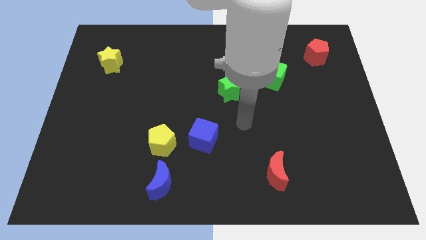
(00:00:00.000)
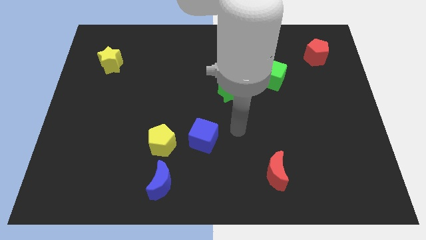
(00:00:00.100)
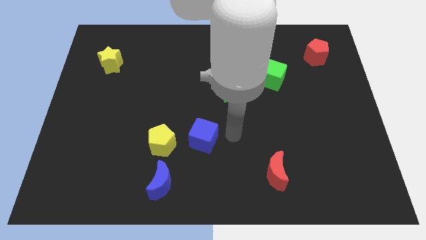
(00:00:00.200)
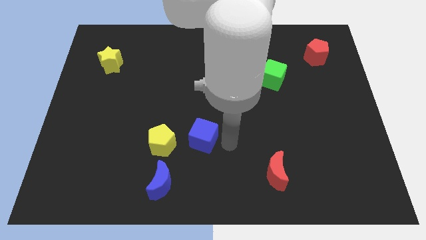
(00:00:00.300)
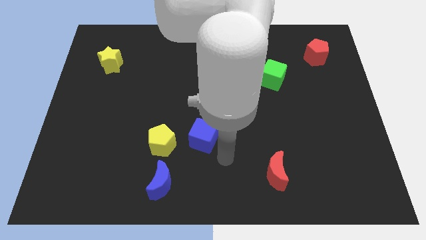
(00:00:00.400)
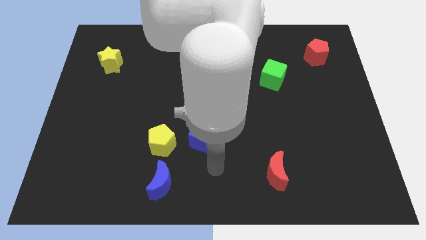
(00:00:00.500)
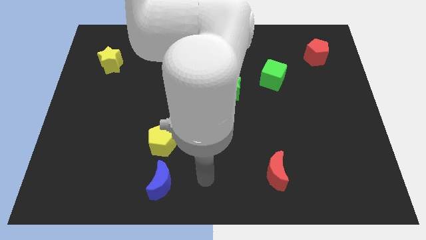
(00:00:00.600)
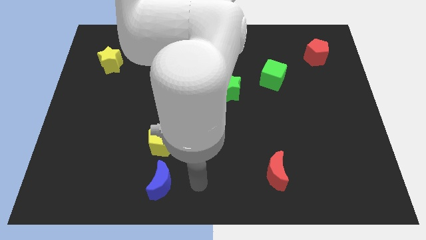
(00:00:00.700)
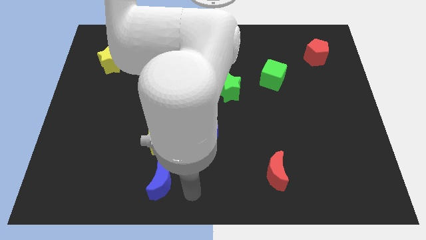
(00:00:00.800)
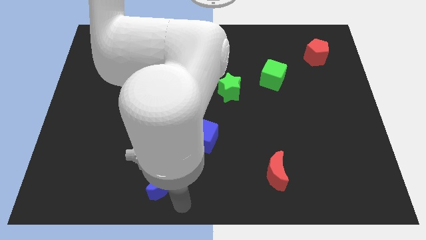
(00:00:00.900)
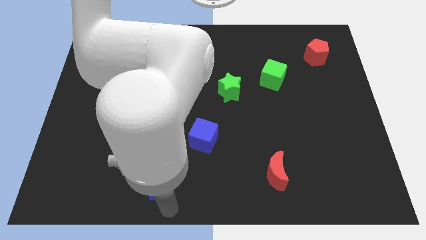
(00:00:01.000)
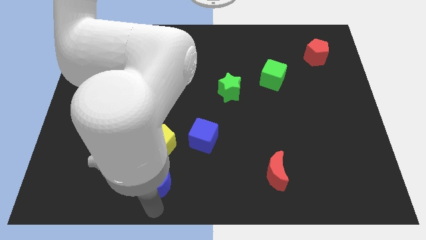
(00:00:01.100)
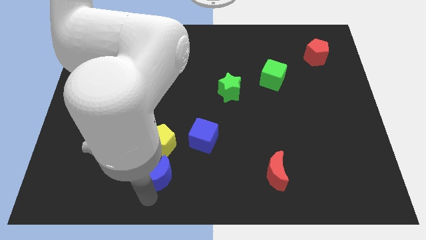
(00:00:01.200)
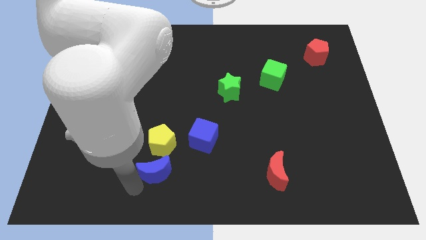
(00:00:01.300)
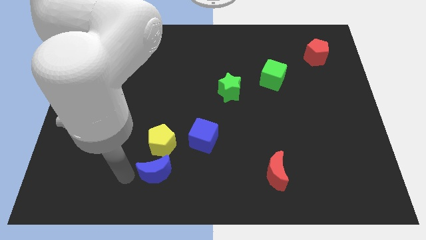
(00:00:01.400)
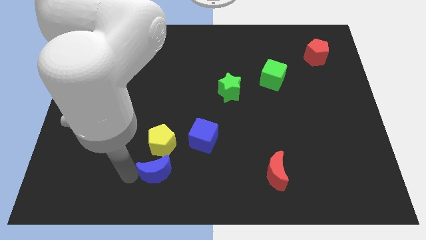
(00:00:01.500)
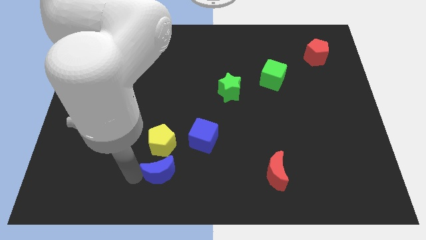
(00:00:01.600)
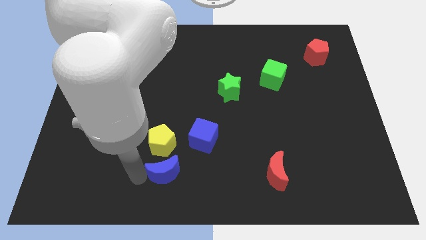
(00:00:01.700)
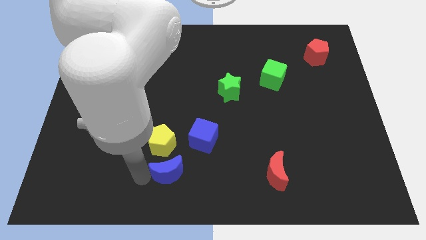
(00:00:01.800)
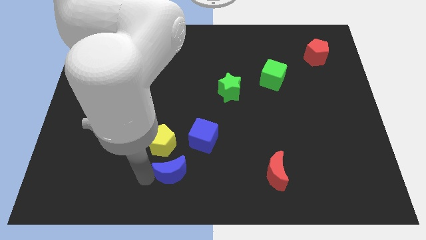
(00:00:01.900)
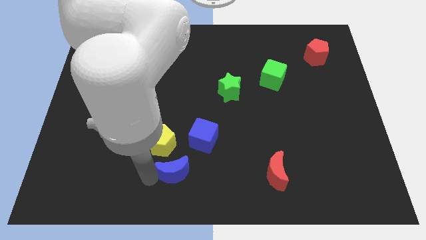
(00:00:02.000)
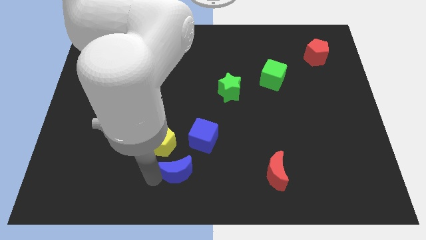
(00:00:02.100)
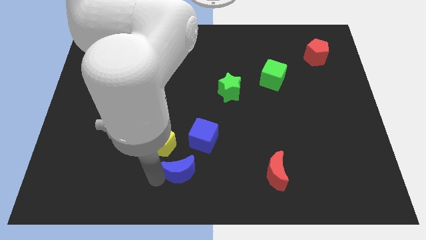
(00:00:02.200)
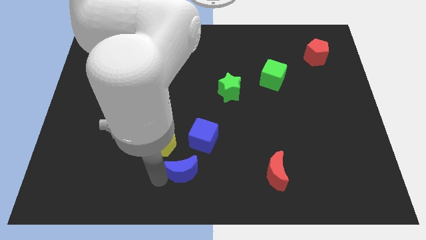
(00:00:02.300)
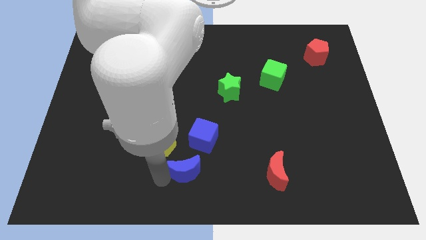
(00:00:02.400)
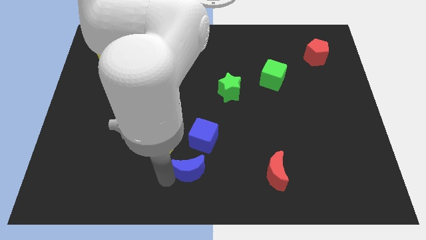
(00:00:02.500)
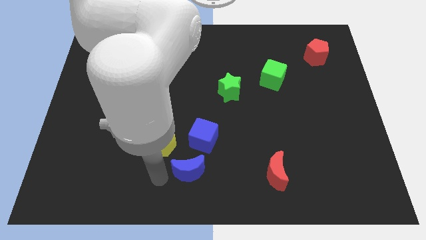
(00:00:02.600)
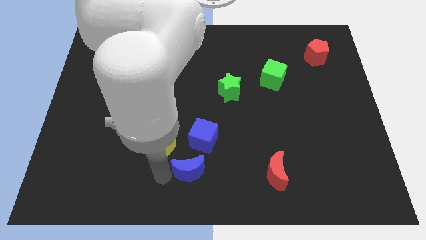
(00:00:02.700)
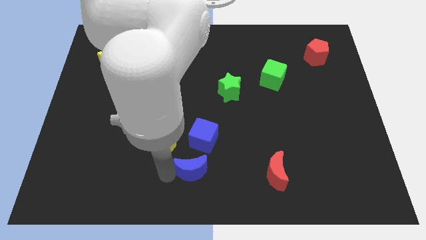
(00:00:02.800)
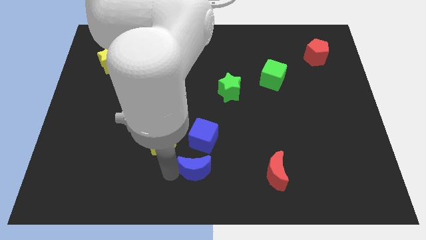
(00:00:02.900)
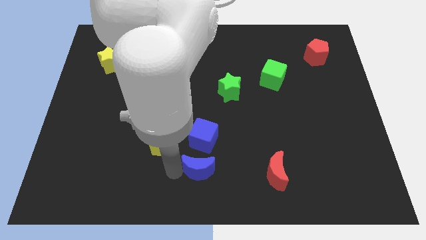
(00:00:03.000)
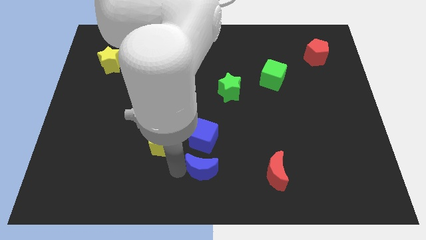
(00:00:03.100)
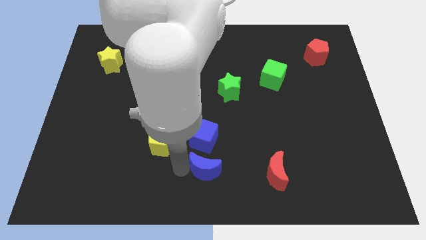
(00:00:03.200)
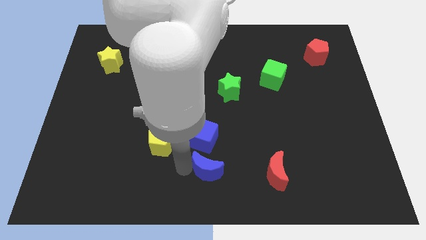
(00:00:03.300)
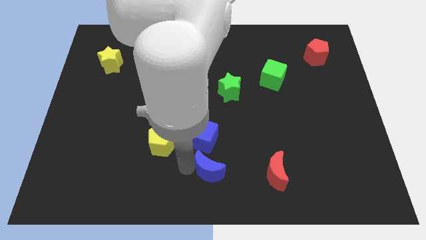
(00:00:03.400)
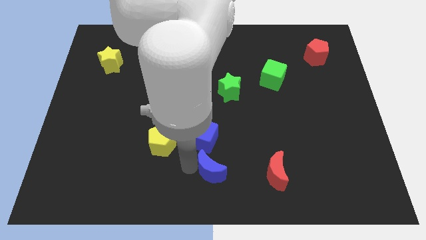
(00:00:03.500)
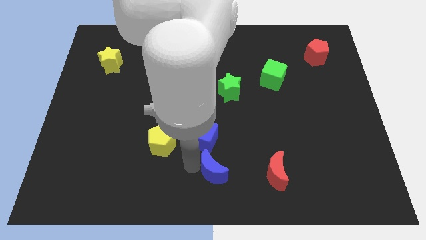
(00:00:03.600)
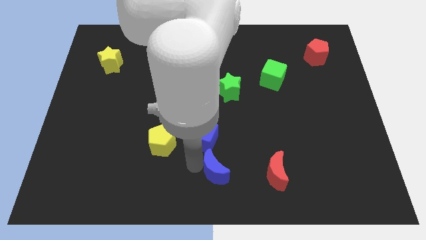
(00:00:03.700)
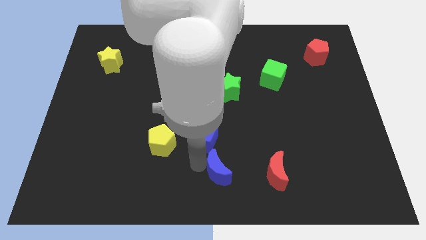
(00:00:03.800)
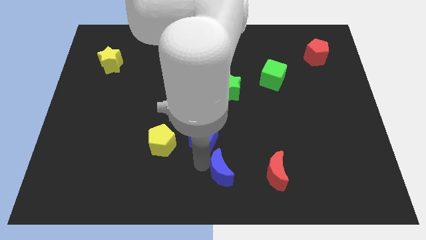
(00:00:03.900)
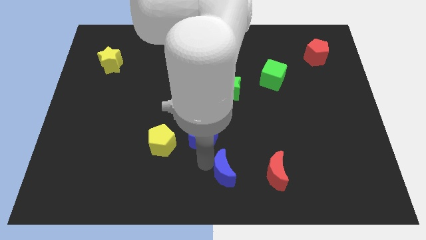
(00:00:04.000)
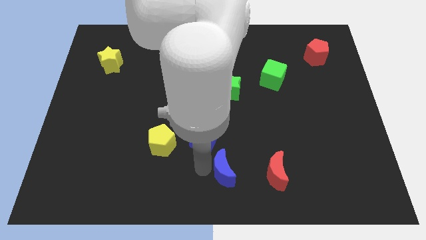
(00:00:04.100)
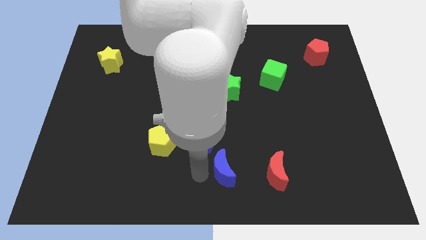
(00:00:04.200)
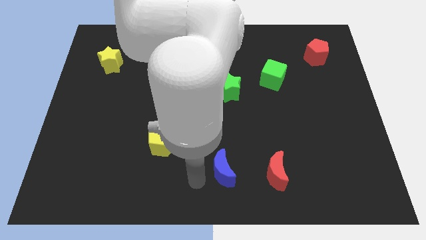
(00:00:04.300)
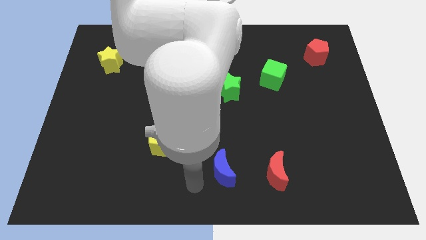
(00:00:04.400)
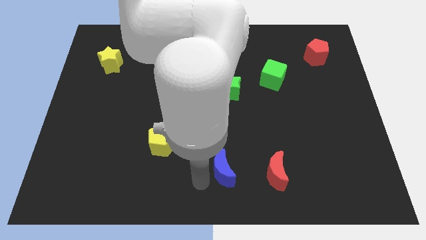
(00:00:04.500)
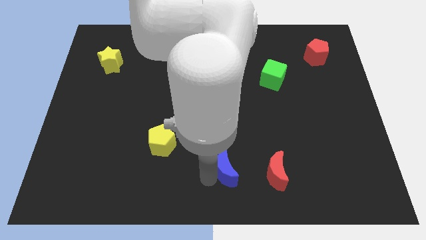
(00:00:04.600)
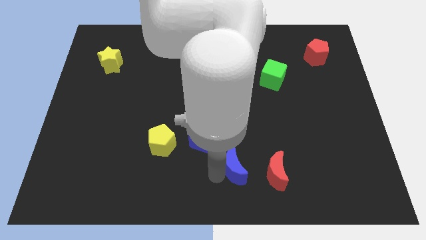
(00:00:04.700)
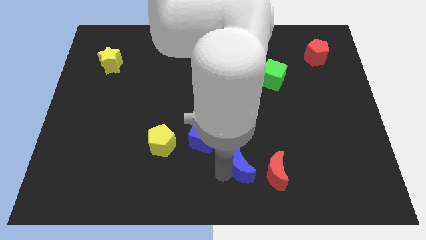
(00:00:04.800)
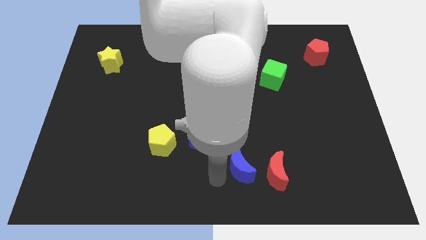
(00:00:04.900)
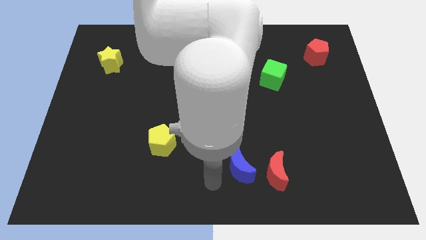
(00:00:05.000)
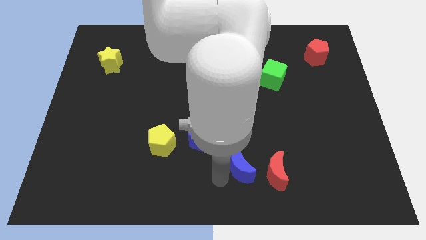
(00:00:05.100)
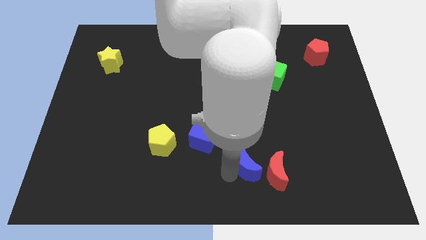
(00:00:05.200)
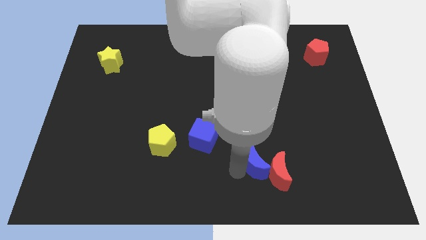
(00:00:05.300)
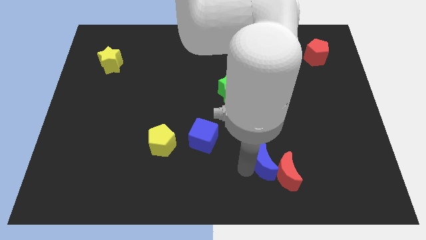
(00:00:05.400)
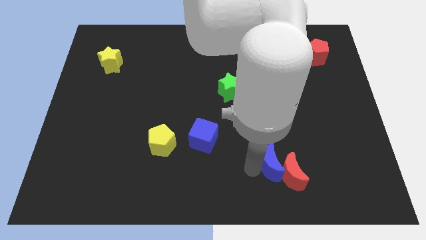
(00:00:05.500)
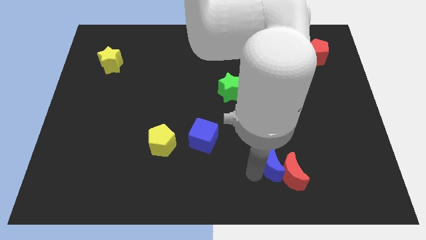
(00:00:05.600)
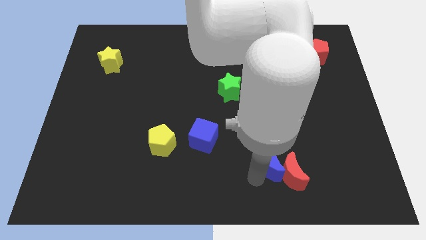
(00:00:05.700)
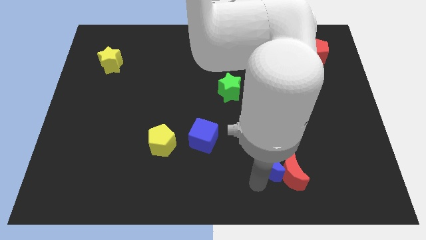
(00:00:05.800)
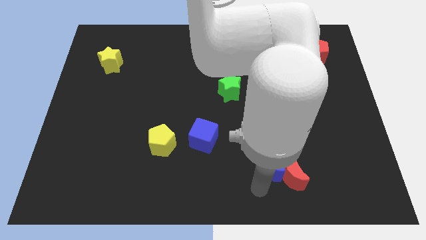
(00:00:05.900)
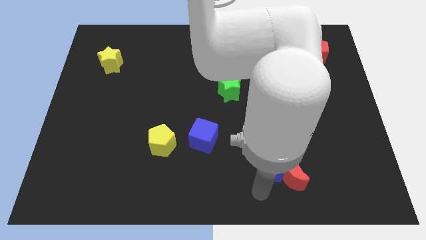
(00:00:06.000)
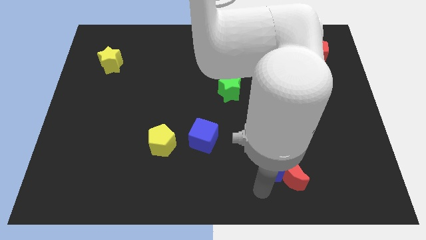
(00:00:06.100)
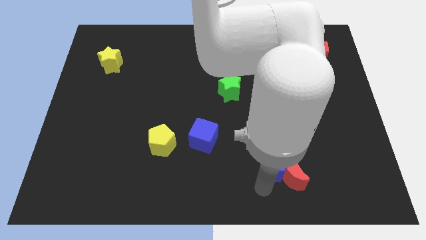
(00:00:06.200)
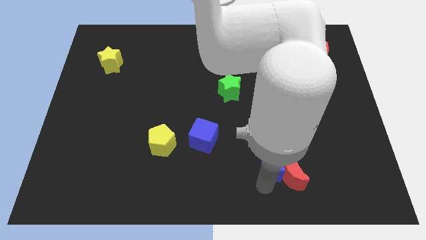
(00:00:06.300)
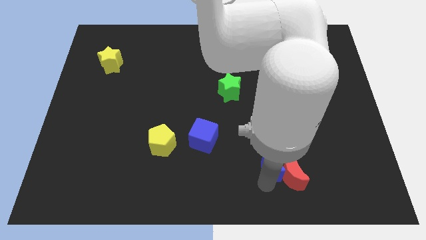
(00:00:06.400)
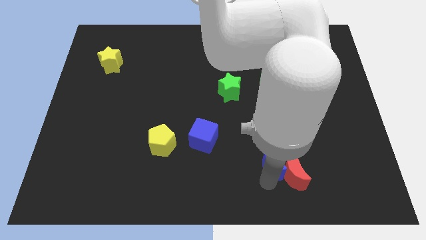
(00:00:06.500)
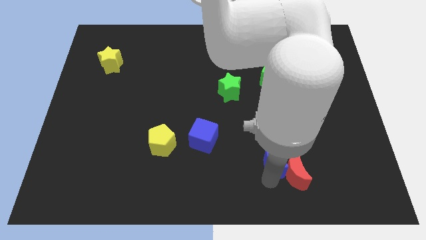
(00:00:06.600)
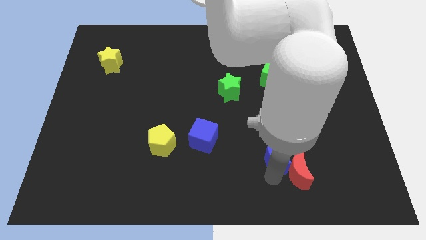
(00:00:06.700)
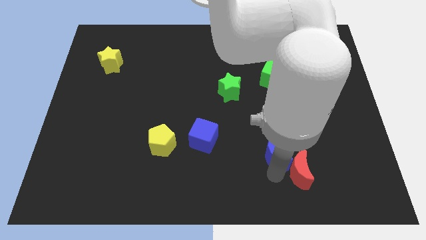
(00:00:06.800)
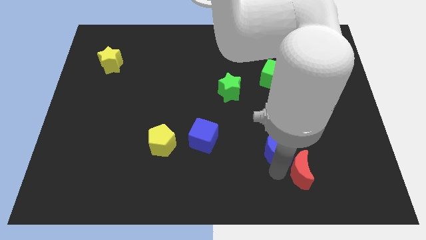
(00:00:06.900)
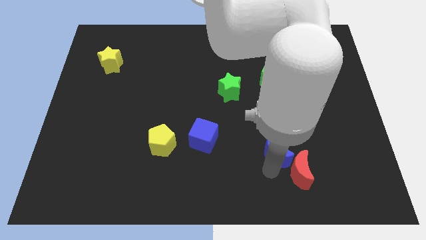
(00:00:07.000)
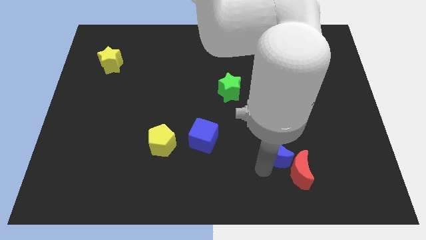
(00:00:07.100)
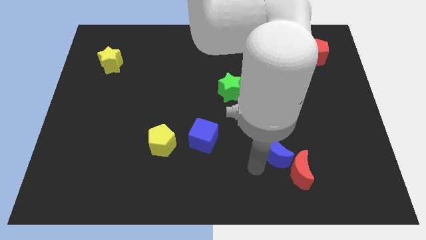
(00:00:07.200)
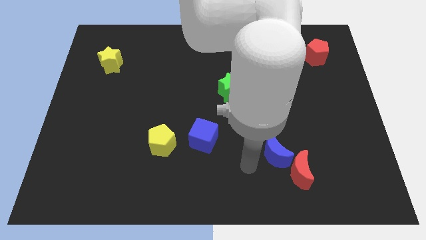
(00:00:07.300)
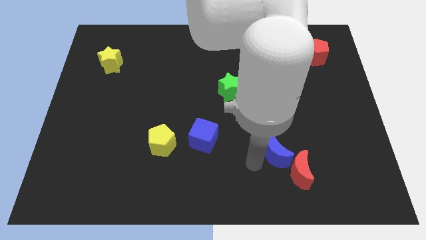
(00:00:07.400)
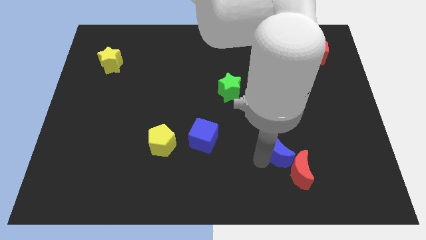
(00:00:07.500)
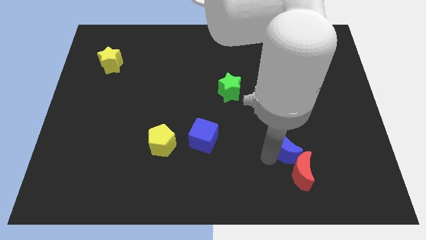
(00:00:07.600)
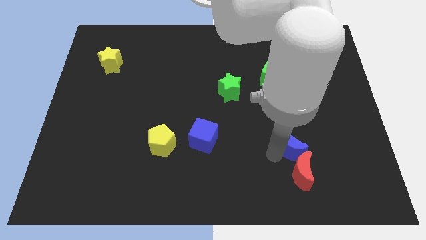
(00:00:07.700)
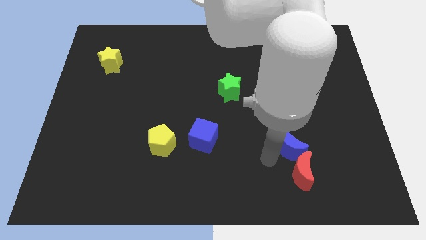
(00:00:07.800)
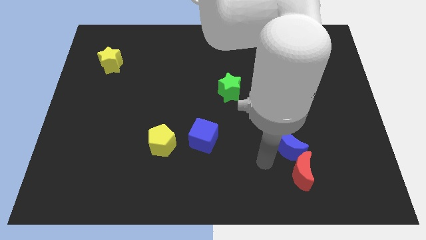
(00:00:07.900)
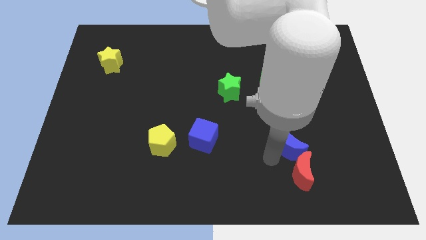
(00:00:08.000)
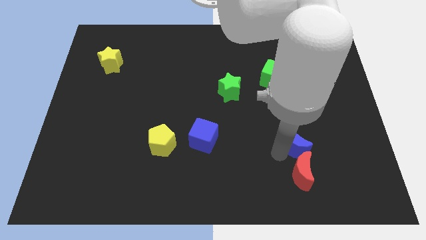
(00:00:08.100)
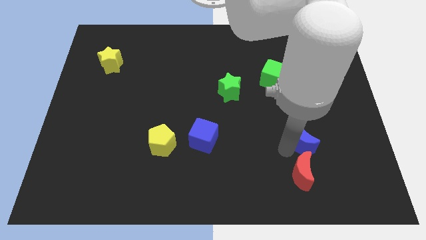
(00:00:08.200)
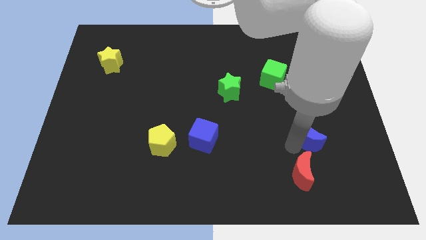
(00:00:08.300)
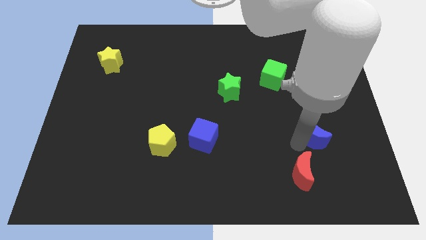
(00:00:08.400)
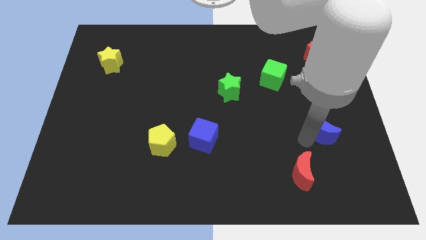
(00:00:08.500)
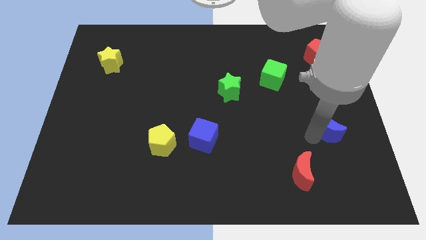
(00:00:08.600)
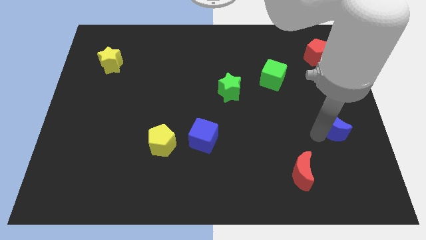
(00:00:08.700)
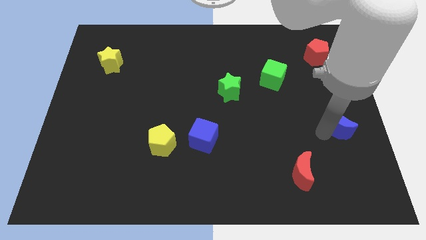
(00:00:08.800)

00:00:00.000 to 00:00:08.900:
put the blue moon to the right side
